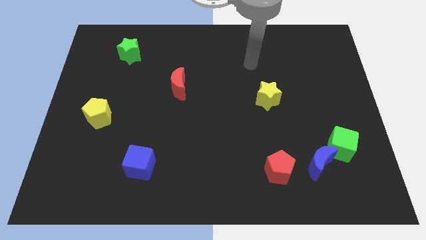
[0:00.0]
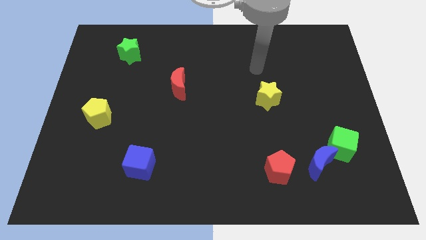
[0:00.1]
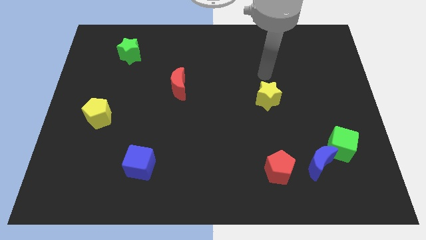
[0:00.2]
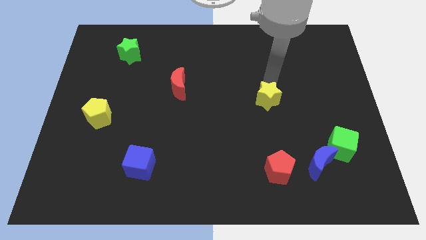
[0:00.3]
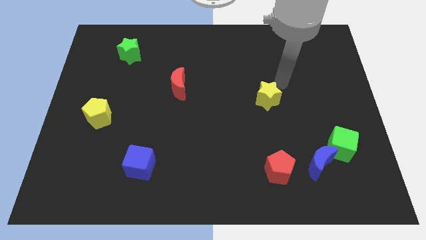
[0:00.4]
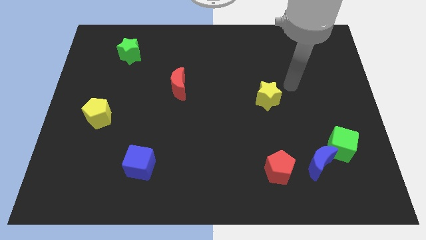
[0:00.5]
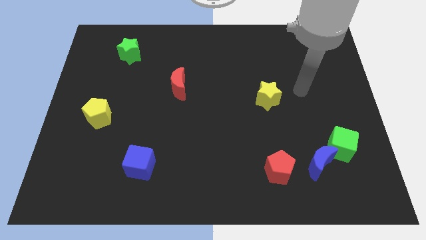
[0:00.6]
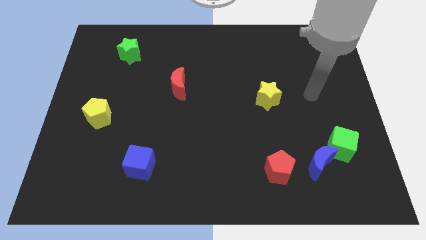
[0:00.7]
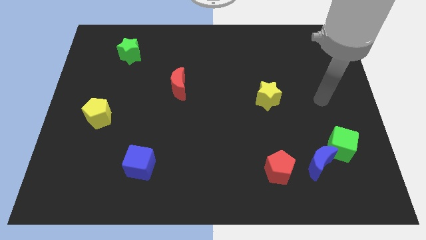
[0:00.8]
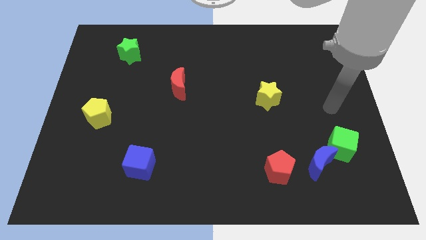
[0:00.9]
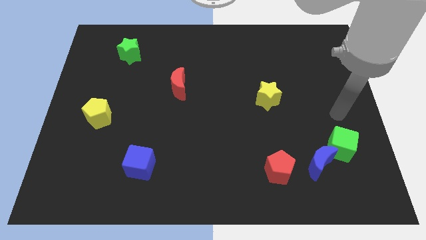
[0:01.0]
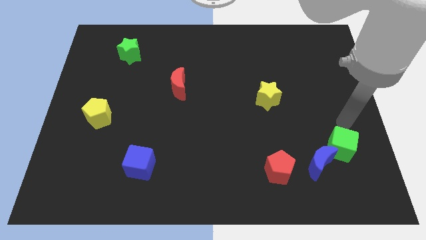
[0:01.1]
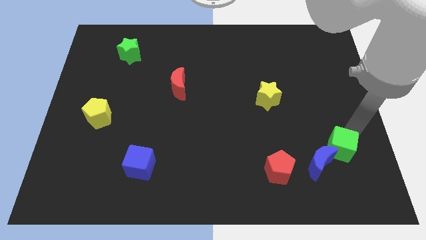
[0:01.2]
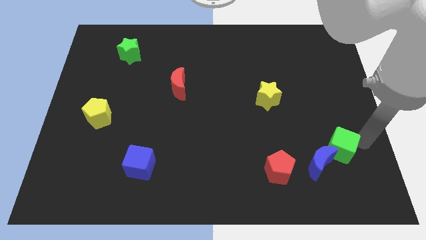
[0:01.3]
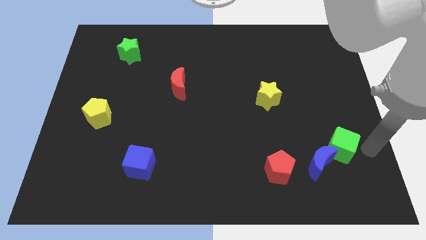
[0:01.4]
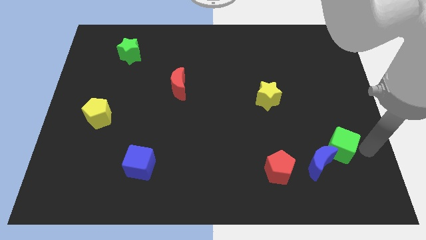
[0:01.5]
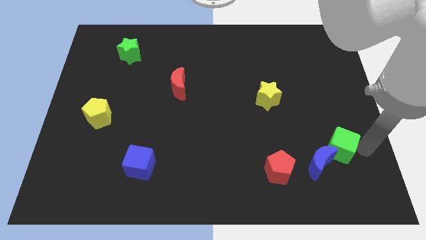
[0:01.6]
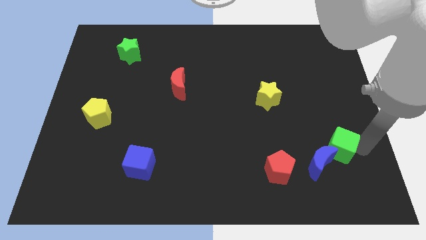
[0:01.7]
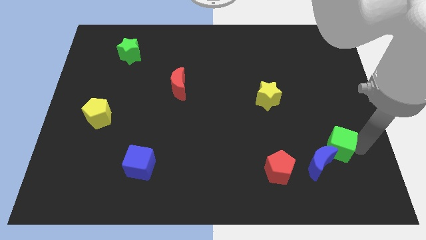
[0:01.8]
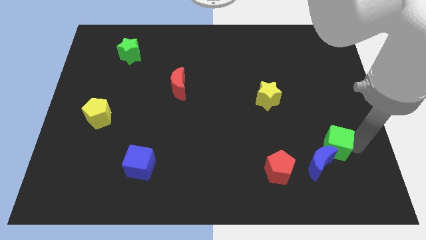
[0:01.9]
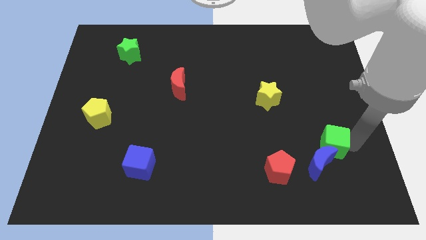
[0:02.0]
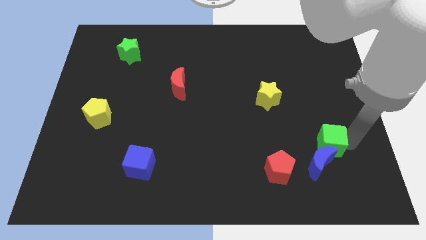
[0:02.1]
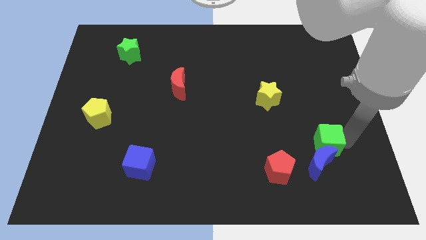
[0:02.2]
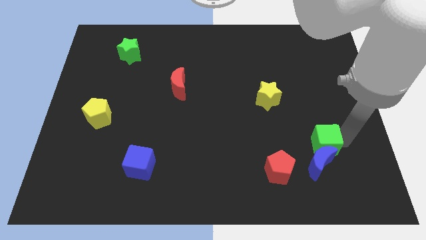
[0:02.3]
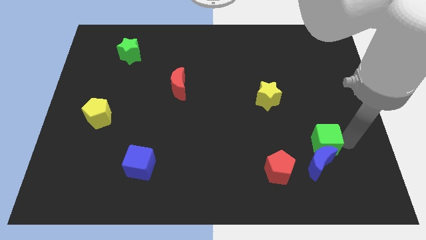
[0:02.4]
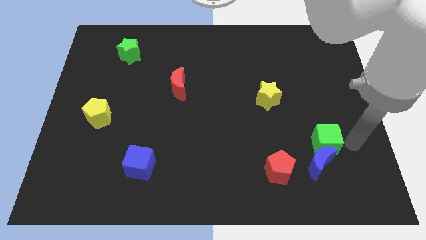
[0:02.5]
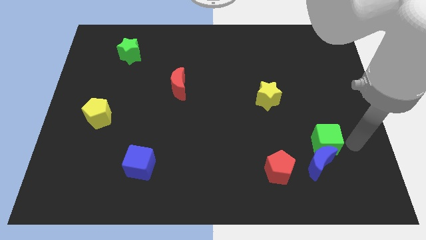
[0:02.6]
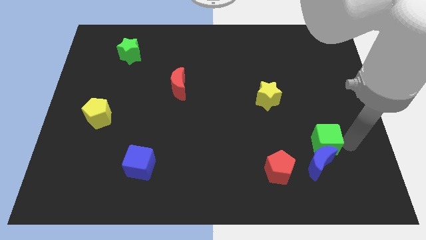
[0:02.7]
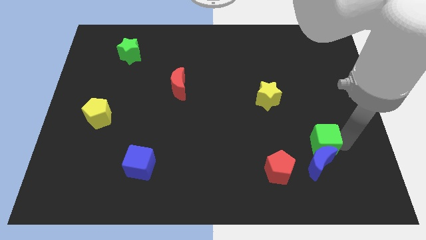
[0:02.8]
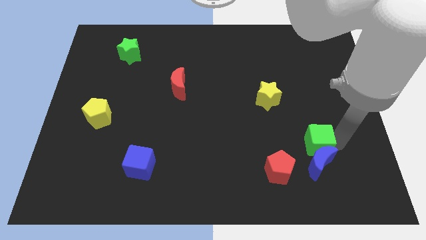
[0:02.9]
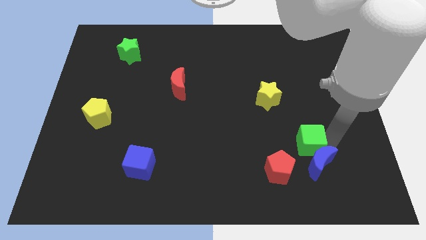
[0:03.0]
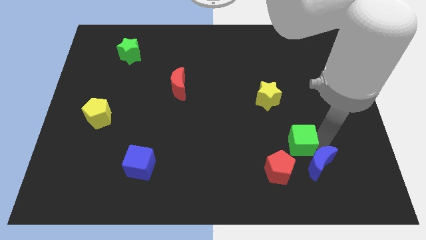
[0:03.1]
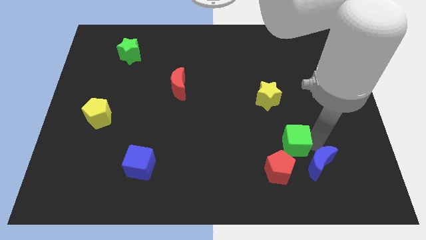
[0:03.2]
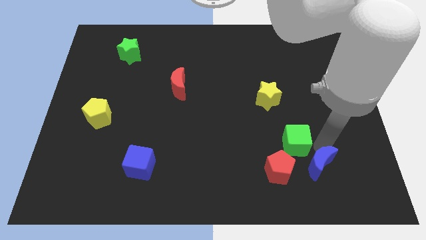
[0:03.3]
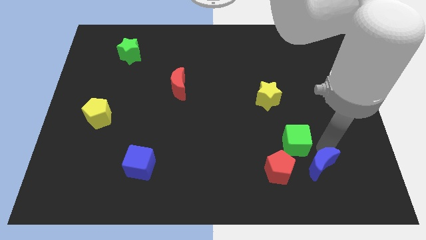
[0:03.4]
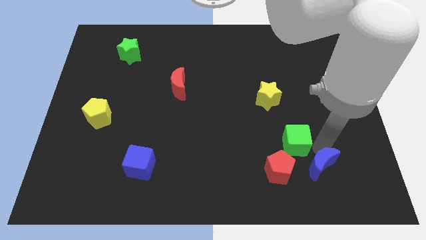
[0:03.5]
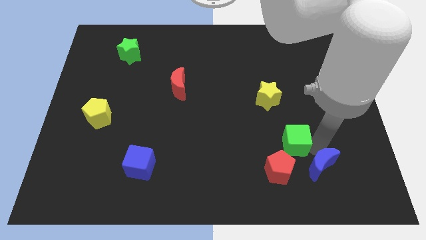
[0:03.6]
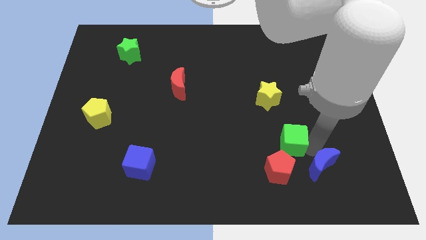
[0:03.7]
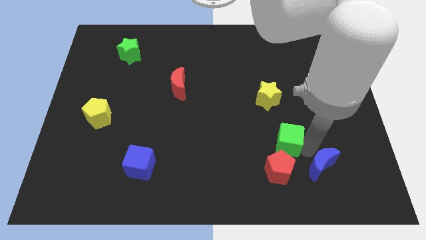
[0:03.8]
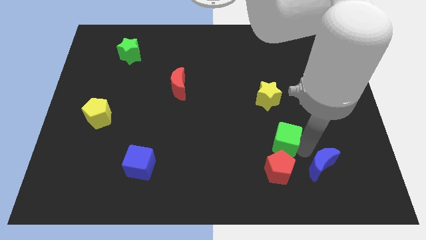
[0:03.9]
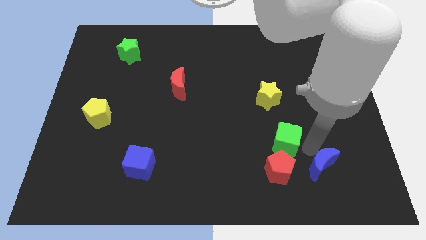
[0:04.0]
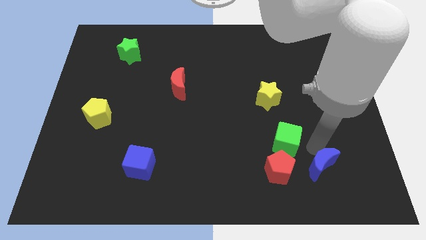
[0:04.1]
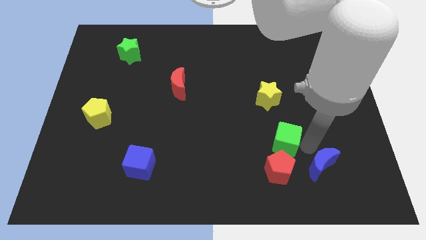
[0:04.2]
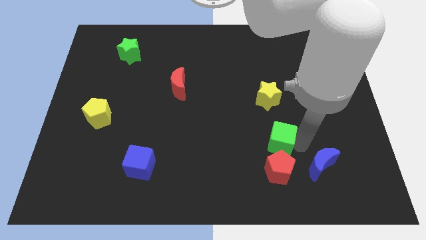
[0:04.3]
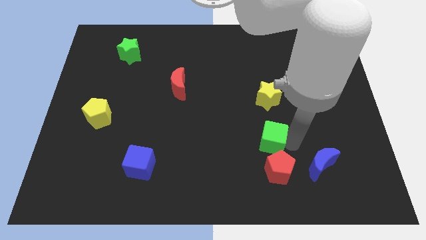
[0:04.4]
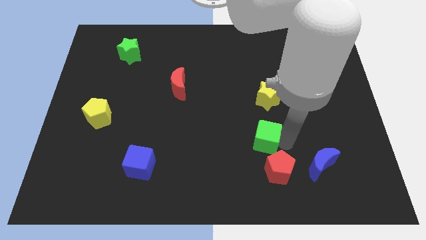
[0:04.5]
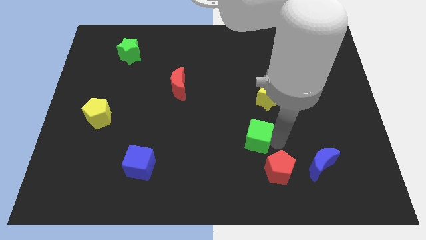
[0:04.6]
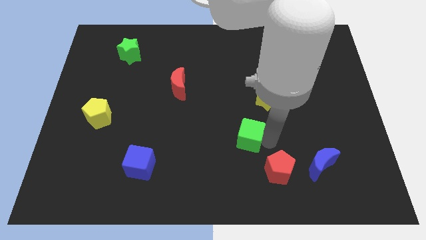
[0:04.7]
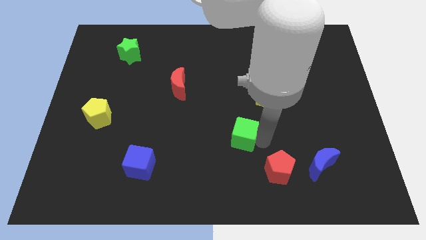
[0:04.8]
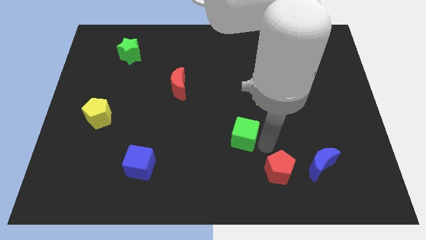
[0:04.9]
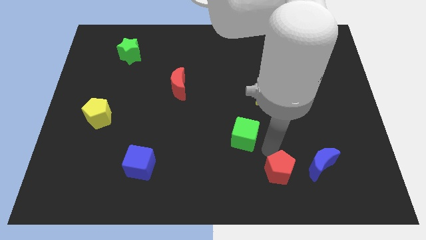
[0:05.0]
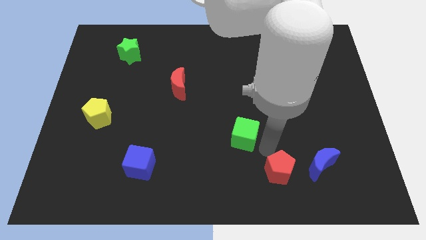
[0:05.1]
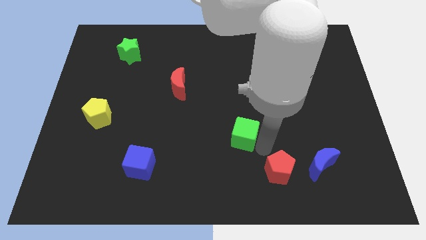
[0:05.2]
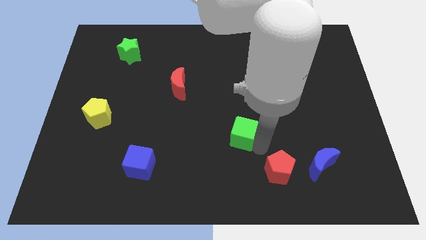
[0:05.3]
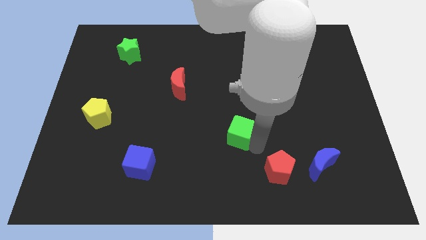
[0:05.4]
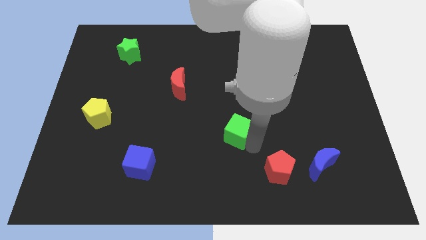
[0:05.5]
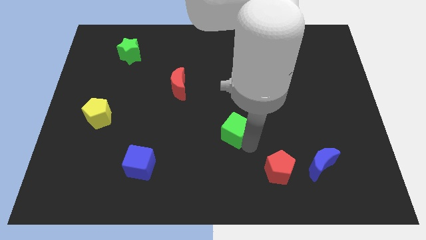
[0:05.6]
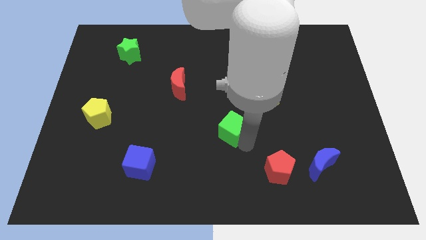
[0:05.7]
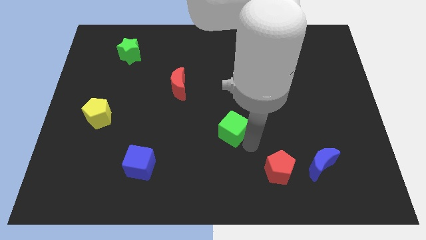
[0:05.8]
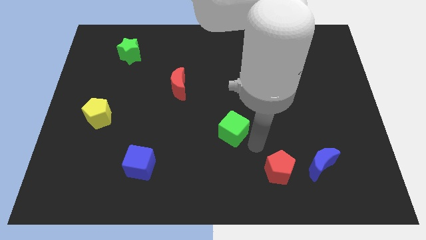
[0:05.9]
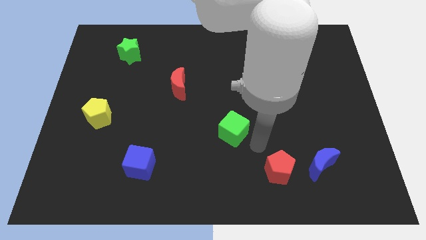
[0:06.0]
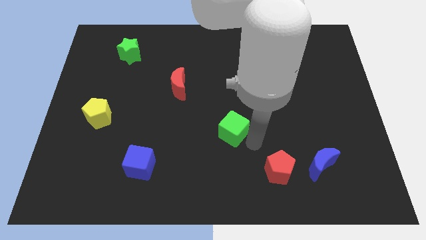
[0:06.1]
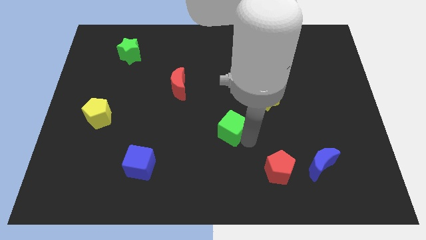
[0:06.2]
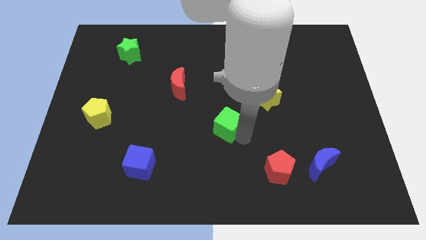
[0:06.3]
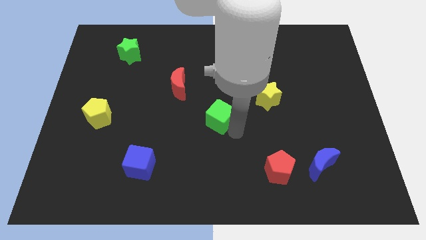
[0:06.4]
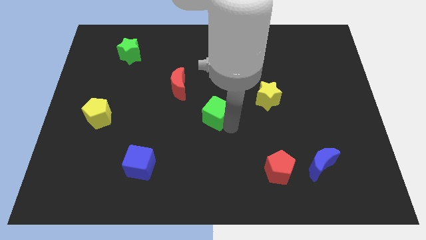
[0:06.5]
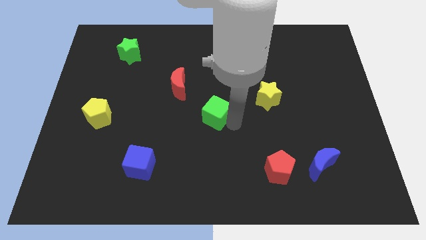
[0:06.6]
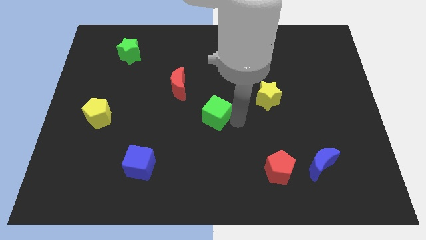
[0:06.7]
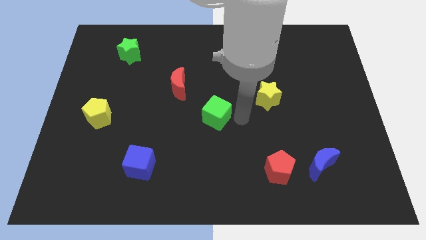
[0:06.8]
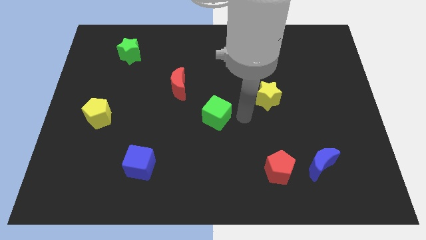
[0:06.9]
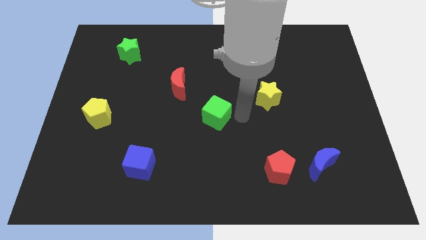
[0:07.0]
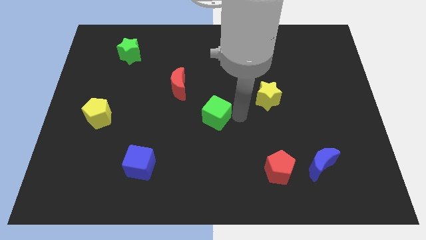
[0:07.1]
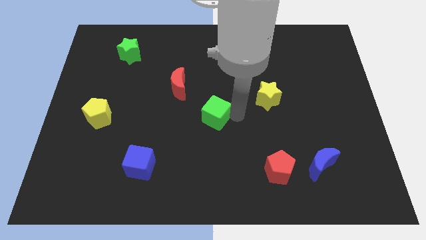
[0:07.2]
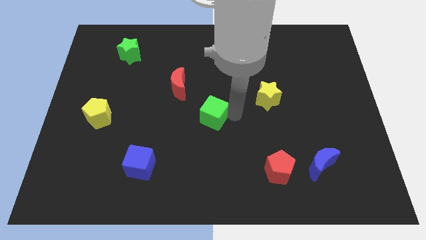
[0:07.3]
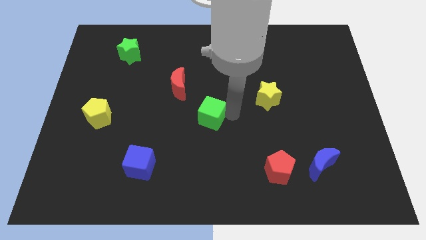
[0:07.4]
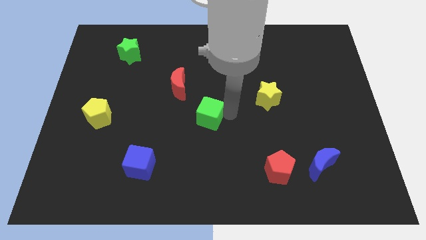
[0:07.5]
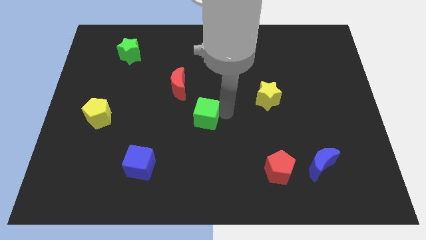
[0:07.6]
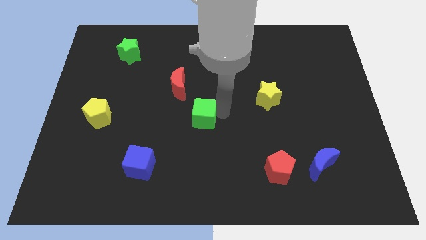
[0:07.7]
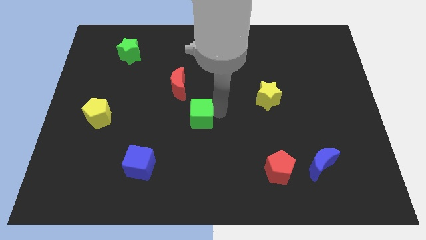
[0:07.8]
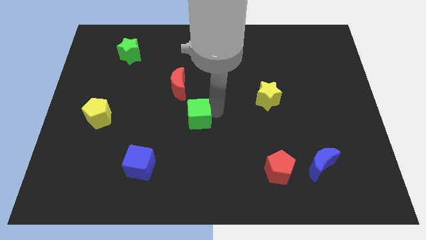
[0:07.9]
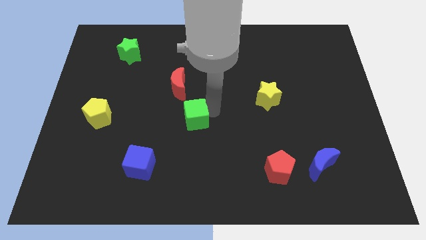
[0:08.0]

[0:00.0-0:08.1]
push the green cube below the red moon

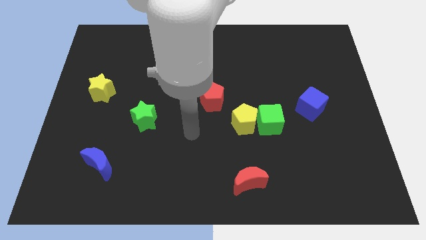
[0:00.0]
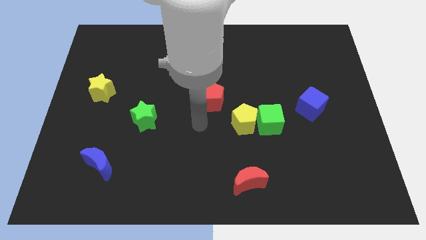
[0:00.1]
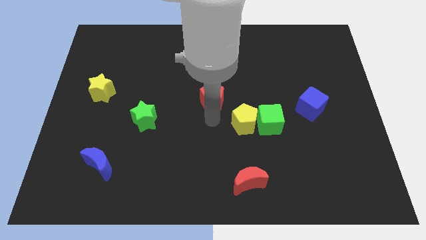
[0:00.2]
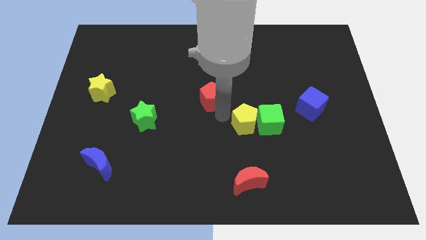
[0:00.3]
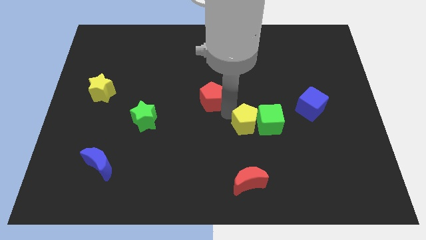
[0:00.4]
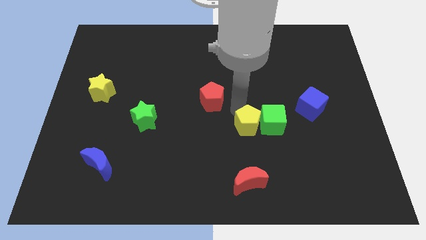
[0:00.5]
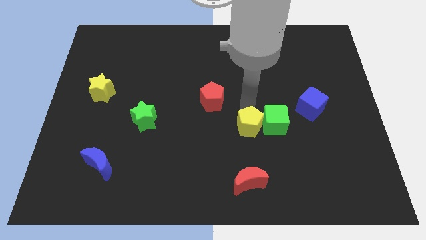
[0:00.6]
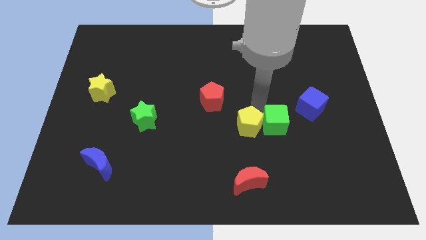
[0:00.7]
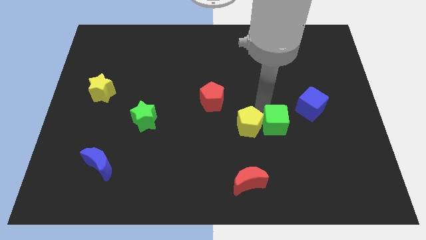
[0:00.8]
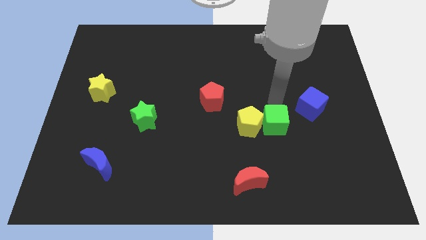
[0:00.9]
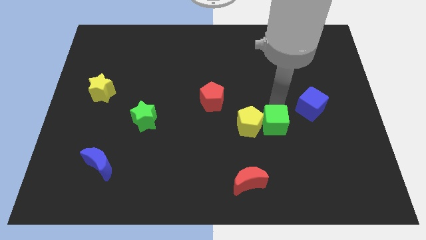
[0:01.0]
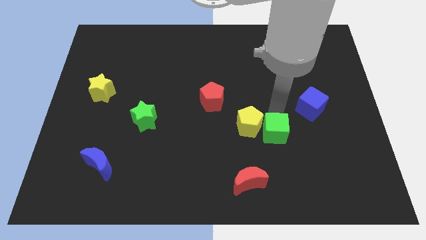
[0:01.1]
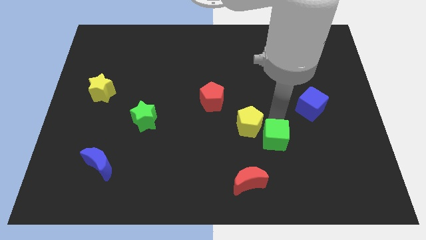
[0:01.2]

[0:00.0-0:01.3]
push the green cube diagonally up and to the right of the red moon
